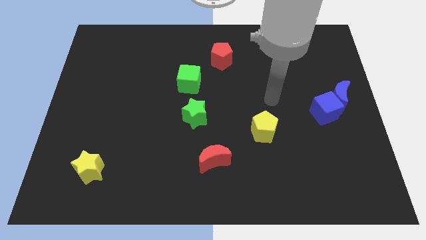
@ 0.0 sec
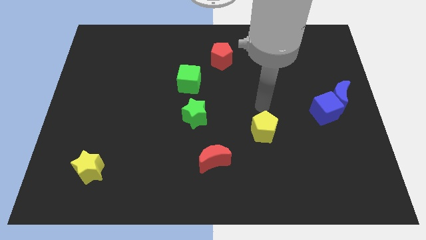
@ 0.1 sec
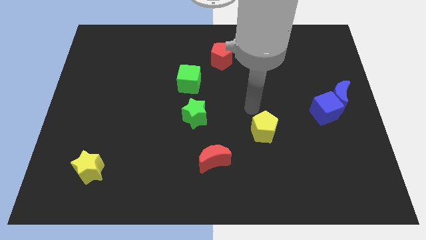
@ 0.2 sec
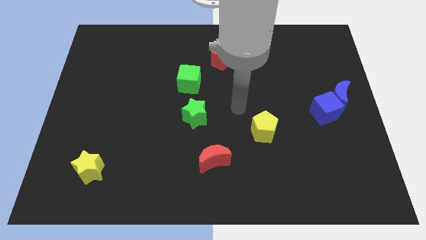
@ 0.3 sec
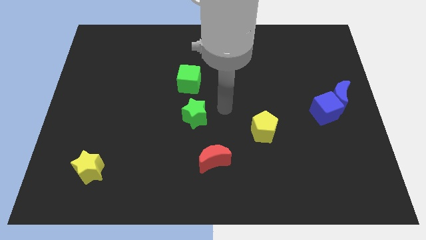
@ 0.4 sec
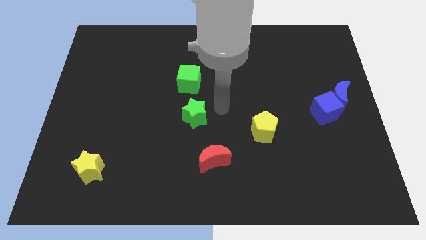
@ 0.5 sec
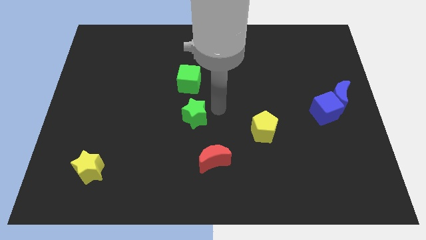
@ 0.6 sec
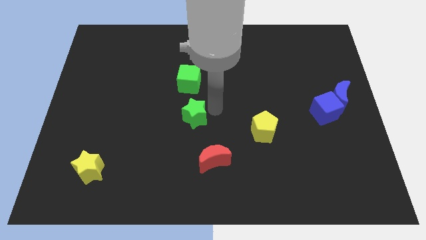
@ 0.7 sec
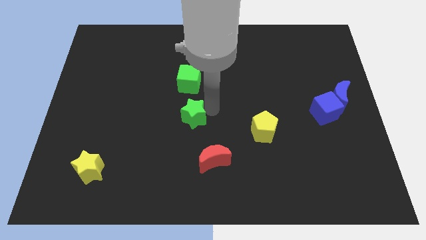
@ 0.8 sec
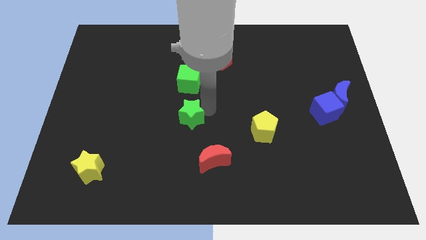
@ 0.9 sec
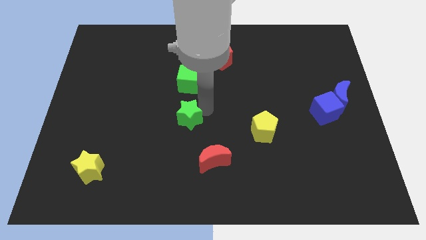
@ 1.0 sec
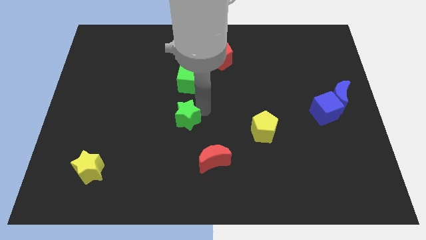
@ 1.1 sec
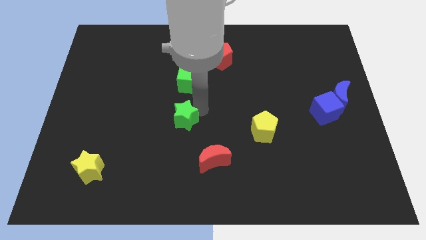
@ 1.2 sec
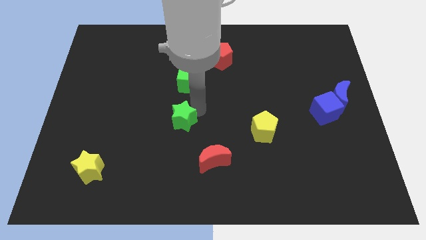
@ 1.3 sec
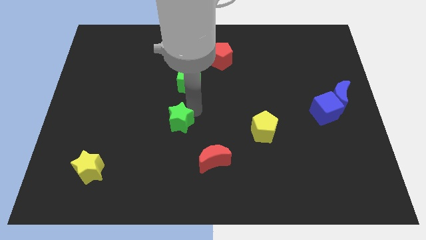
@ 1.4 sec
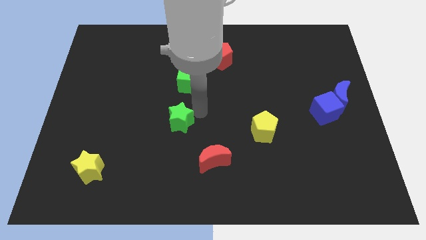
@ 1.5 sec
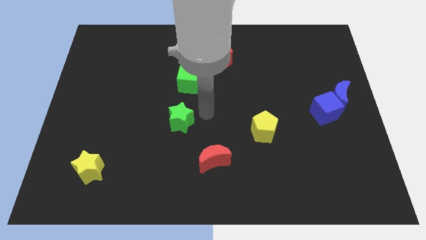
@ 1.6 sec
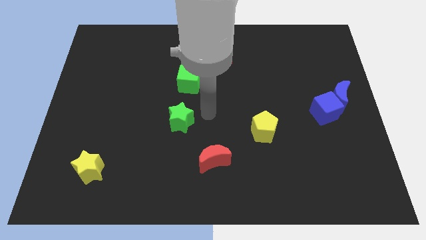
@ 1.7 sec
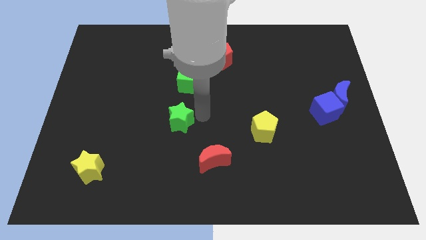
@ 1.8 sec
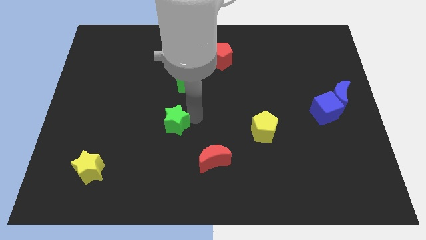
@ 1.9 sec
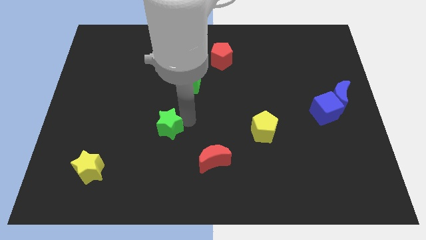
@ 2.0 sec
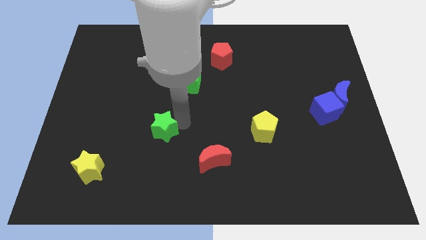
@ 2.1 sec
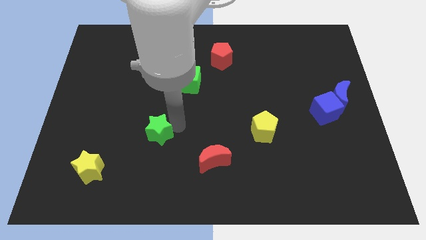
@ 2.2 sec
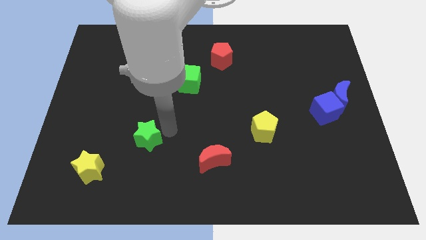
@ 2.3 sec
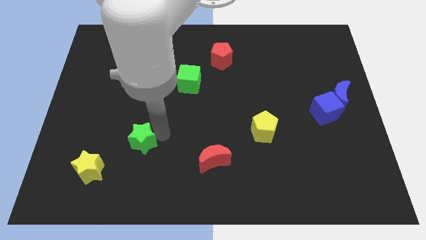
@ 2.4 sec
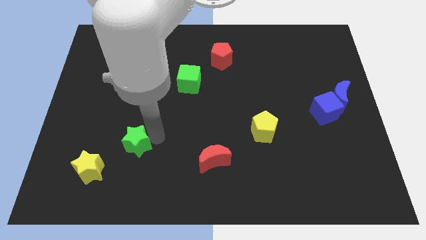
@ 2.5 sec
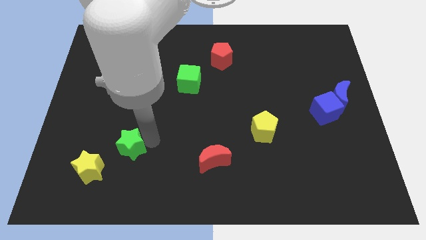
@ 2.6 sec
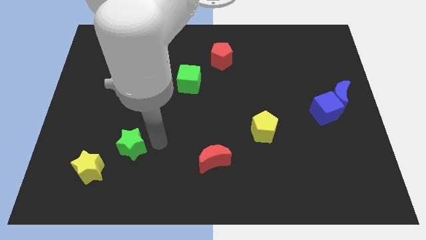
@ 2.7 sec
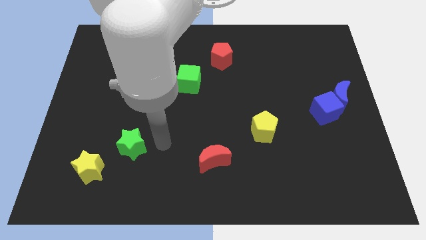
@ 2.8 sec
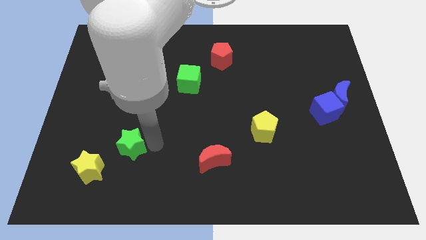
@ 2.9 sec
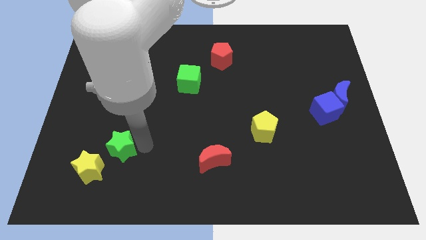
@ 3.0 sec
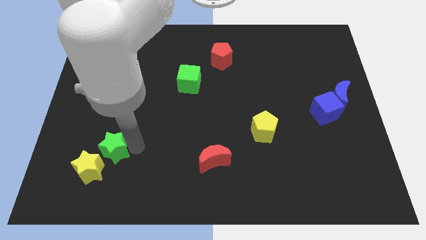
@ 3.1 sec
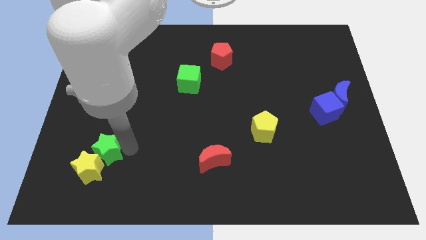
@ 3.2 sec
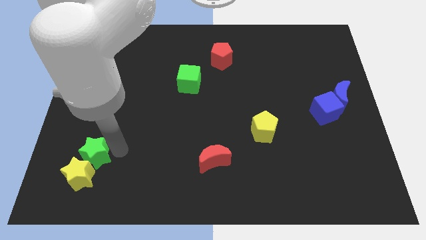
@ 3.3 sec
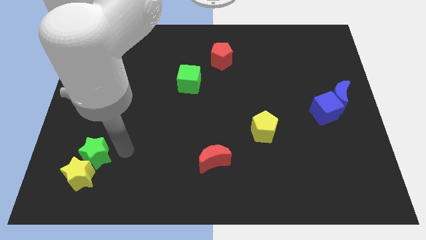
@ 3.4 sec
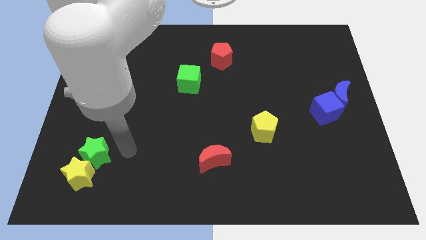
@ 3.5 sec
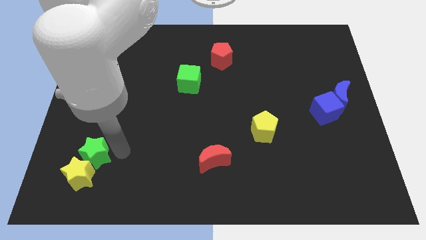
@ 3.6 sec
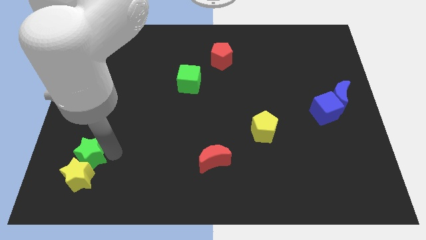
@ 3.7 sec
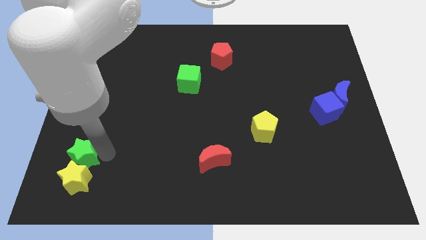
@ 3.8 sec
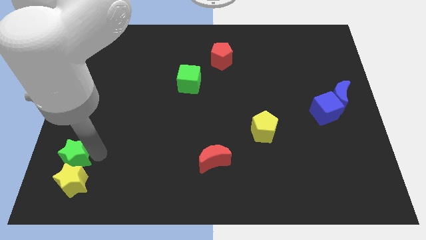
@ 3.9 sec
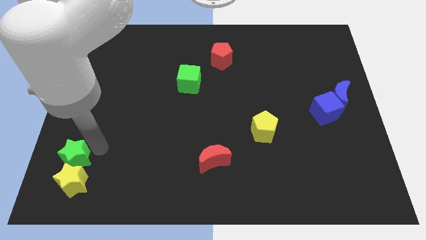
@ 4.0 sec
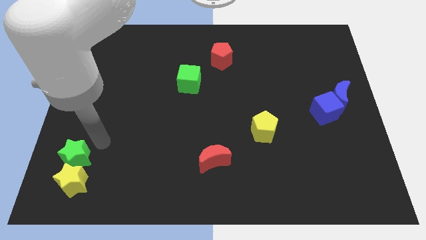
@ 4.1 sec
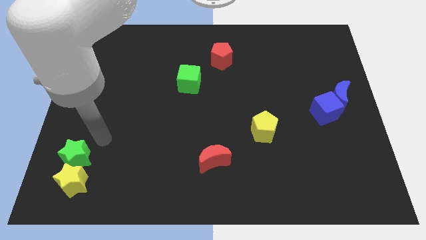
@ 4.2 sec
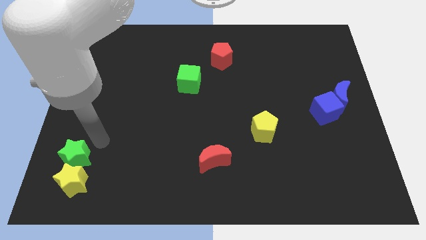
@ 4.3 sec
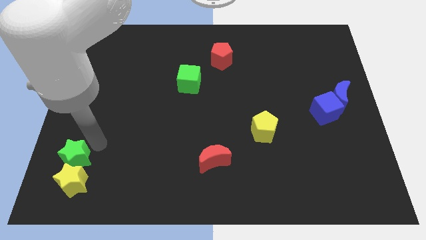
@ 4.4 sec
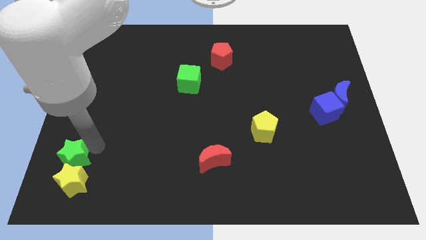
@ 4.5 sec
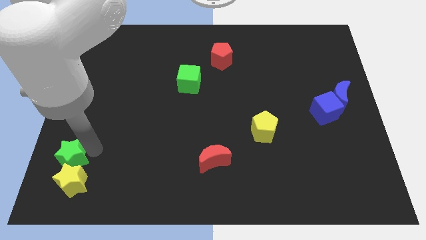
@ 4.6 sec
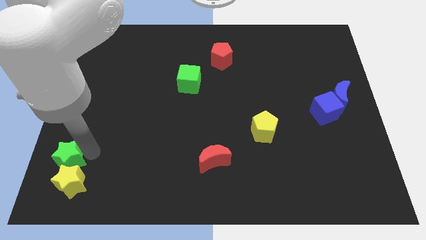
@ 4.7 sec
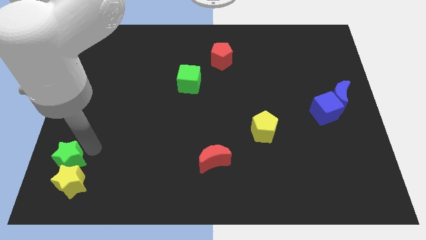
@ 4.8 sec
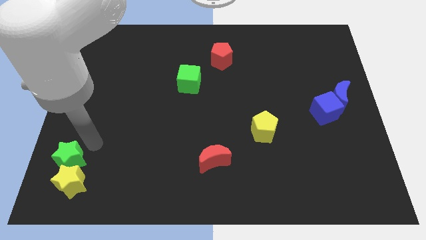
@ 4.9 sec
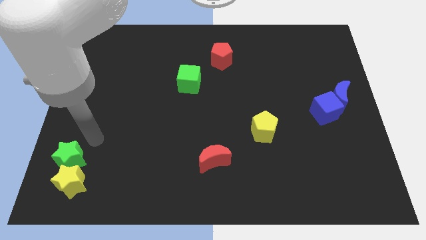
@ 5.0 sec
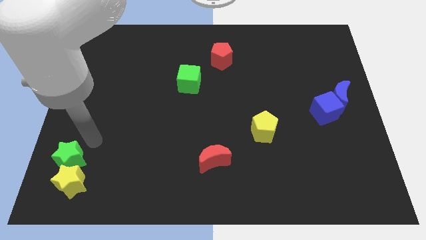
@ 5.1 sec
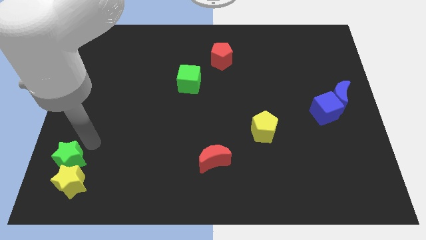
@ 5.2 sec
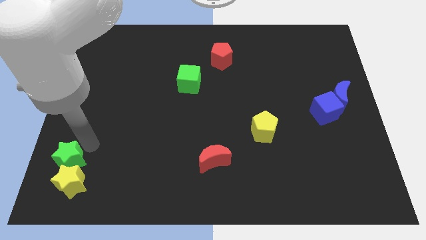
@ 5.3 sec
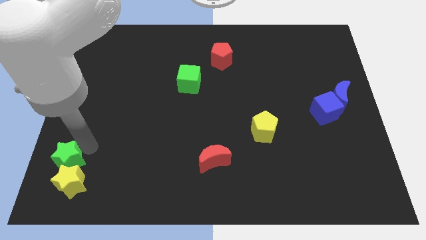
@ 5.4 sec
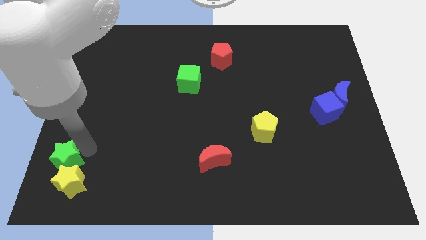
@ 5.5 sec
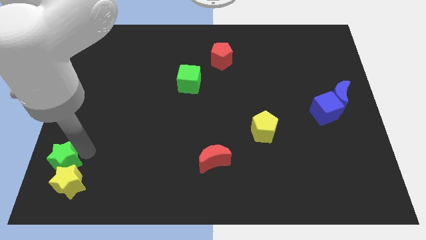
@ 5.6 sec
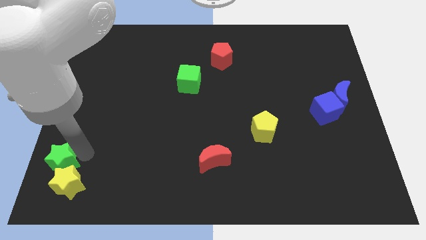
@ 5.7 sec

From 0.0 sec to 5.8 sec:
push the green star to the bottom left of the board
